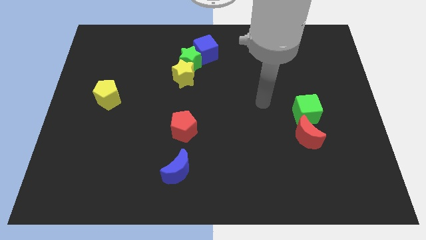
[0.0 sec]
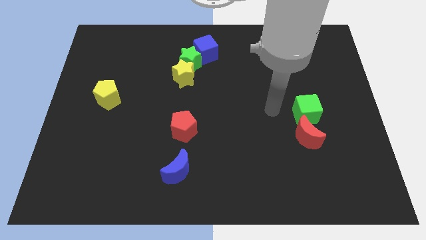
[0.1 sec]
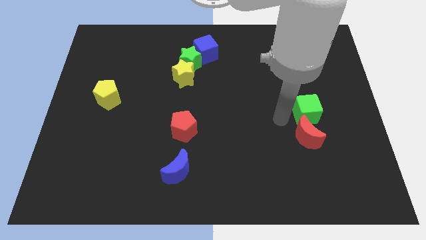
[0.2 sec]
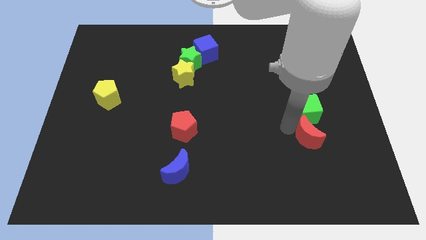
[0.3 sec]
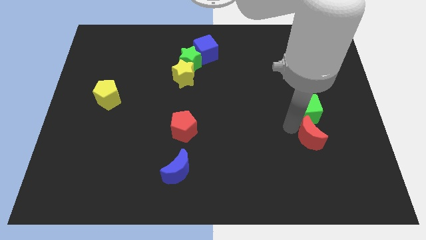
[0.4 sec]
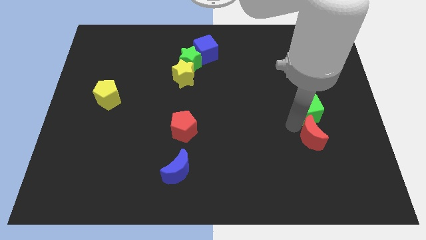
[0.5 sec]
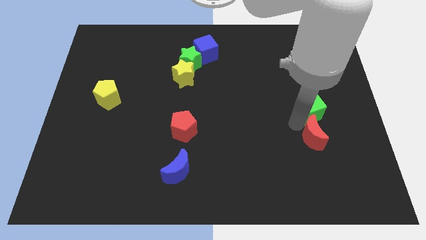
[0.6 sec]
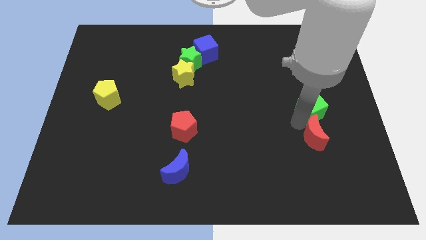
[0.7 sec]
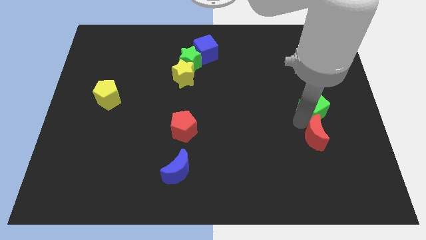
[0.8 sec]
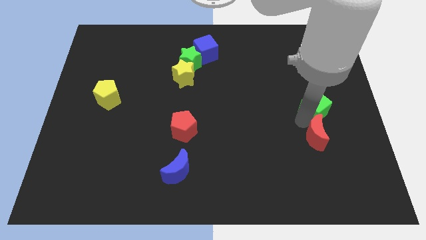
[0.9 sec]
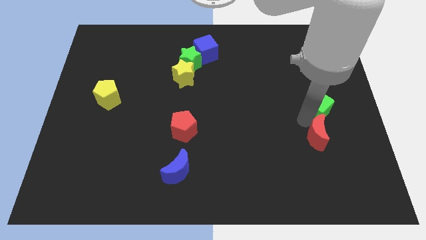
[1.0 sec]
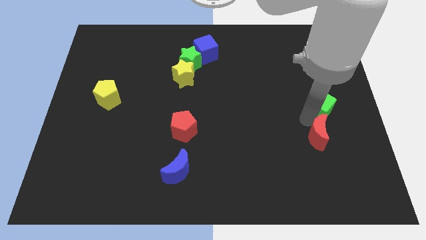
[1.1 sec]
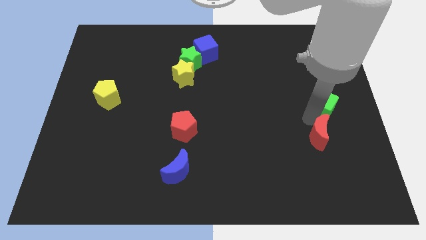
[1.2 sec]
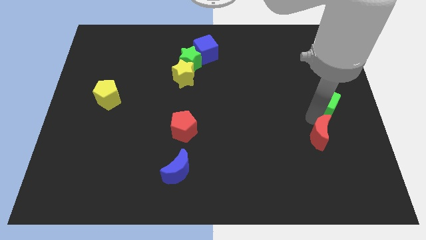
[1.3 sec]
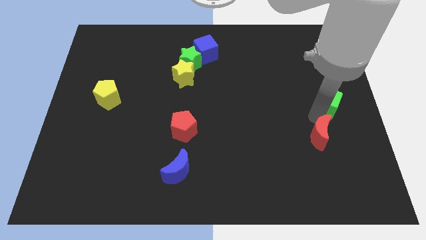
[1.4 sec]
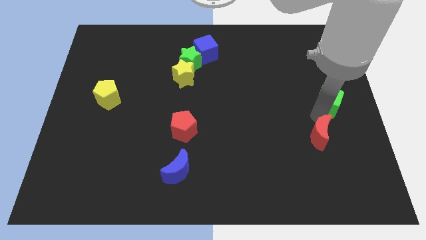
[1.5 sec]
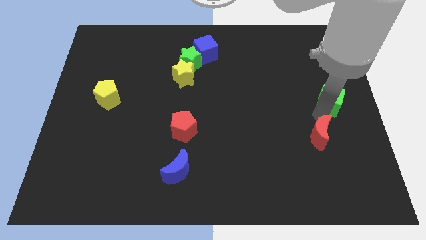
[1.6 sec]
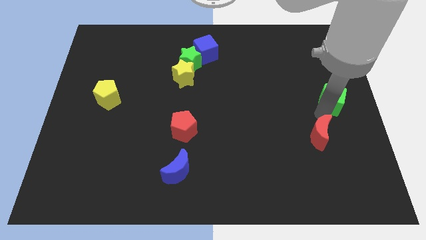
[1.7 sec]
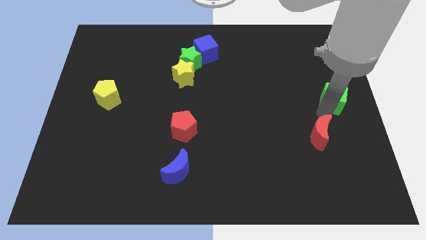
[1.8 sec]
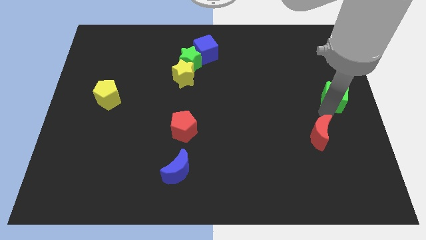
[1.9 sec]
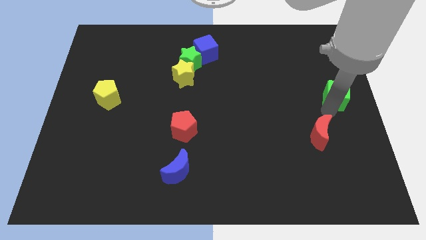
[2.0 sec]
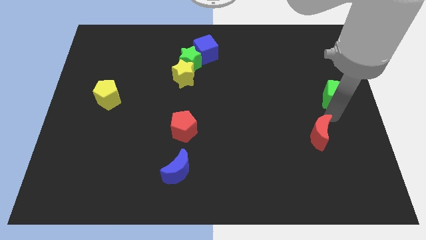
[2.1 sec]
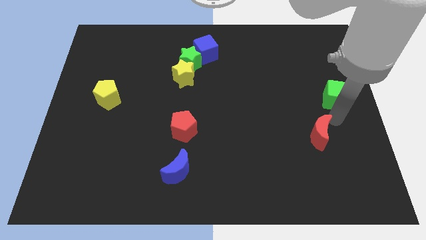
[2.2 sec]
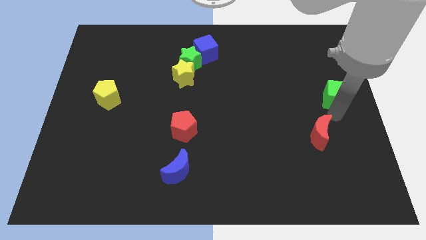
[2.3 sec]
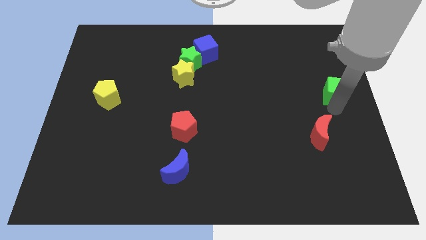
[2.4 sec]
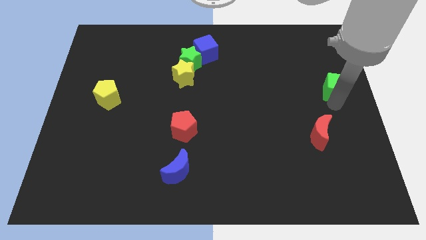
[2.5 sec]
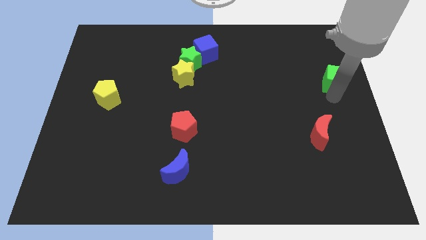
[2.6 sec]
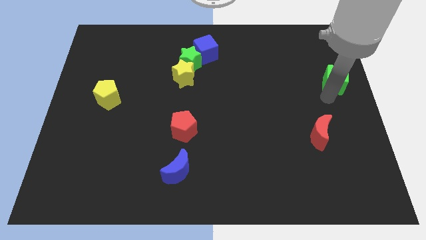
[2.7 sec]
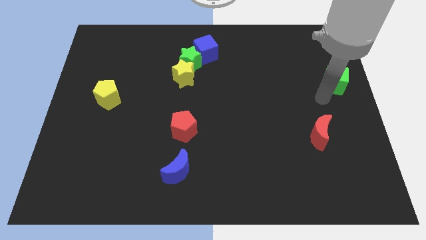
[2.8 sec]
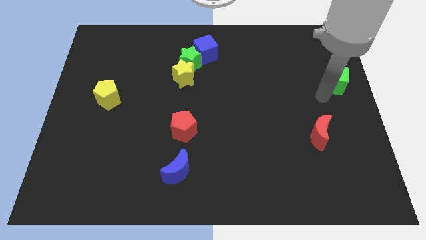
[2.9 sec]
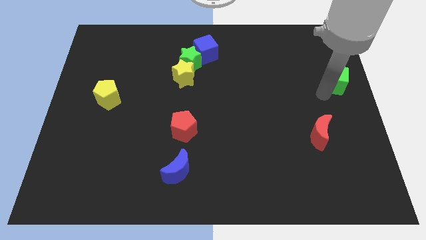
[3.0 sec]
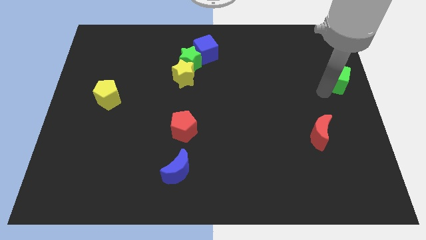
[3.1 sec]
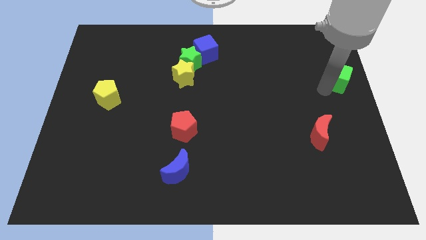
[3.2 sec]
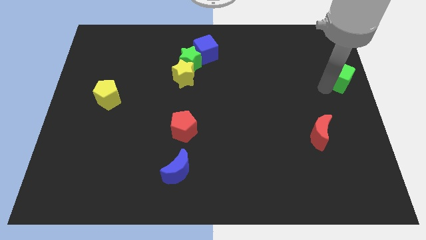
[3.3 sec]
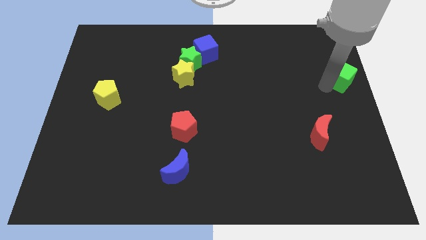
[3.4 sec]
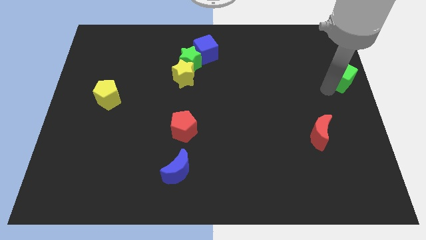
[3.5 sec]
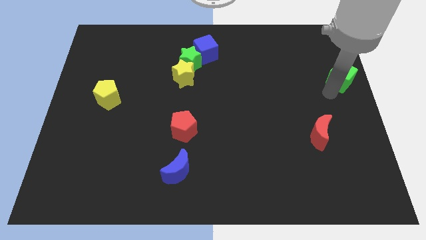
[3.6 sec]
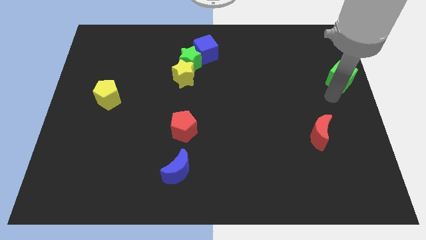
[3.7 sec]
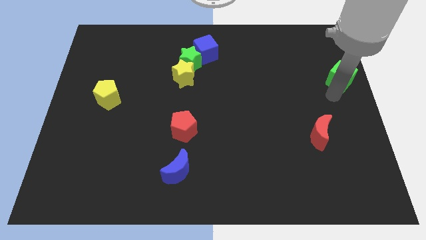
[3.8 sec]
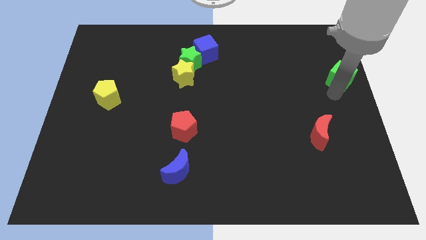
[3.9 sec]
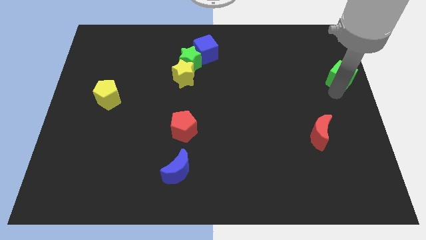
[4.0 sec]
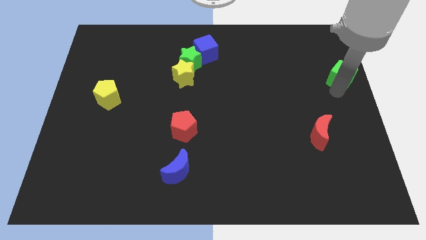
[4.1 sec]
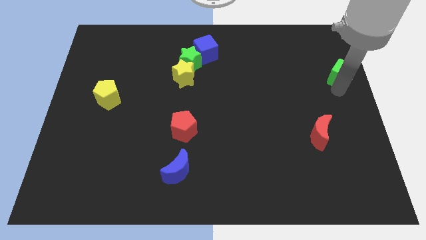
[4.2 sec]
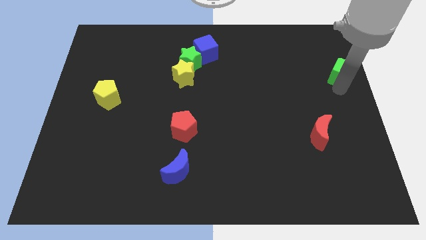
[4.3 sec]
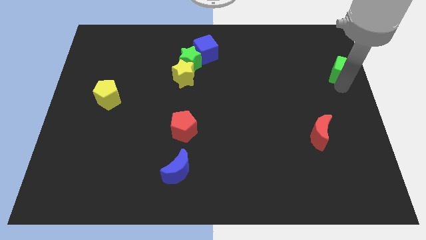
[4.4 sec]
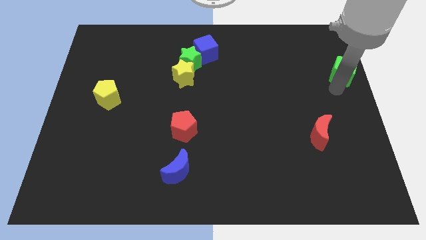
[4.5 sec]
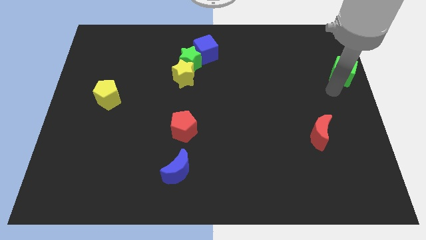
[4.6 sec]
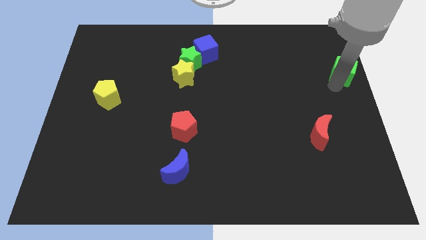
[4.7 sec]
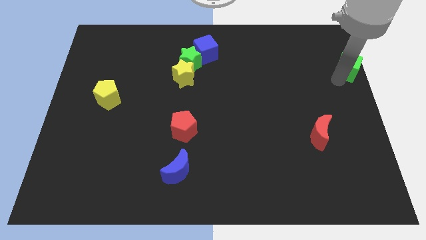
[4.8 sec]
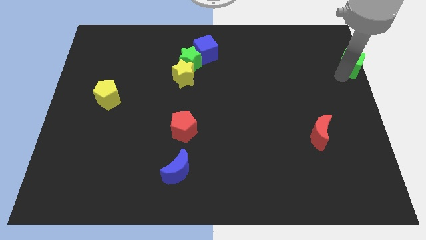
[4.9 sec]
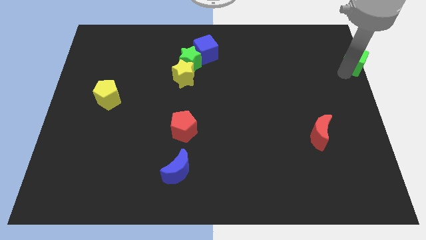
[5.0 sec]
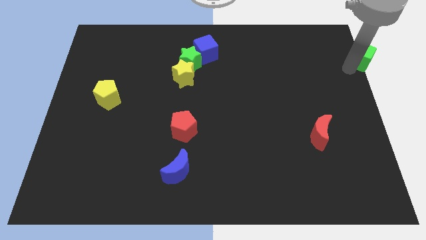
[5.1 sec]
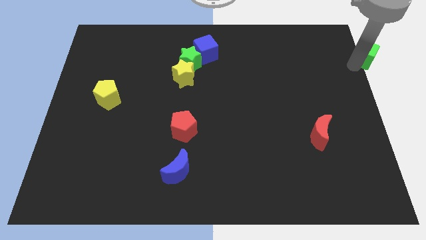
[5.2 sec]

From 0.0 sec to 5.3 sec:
slide the green cube to the top right of the board

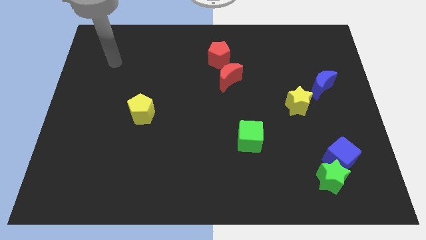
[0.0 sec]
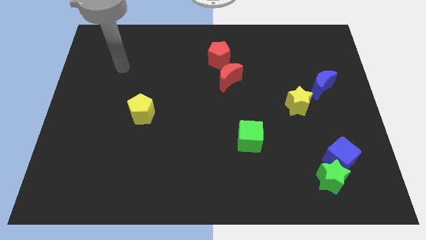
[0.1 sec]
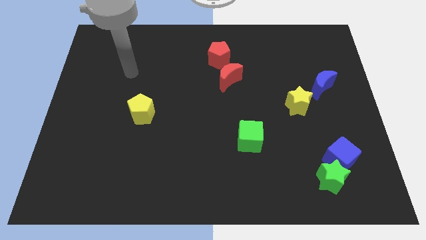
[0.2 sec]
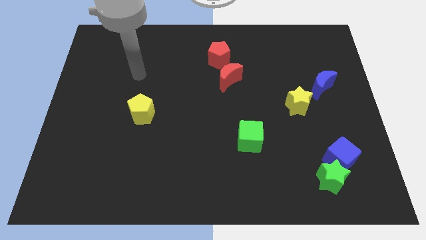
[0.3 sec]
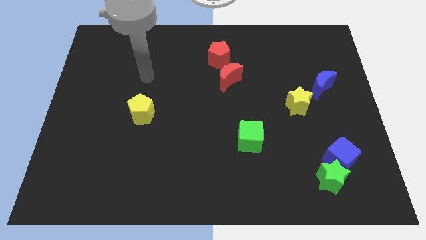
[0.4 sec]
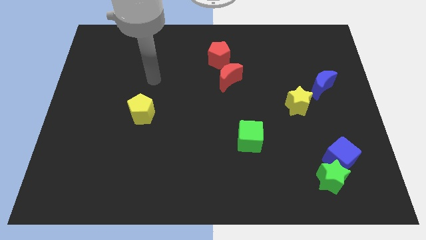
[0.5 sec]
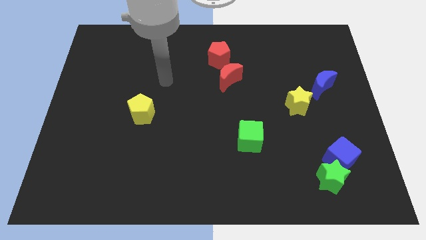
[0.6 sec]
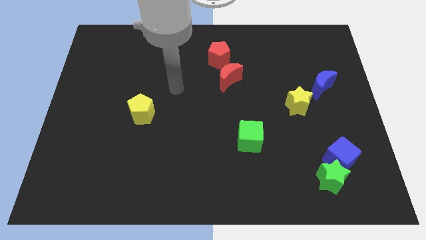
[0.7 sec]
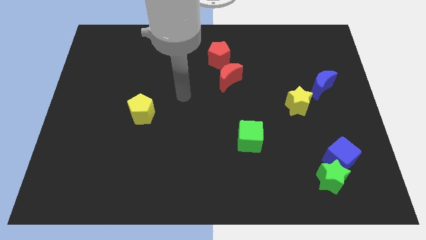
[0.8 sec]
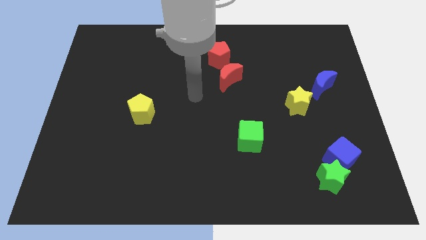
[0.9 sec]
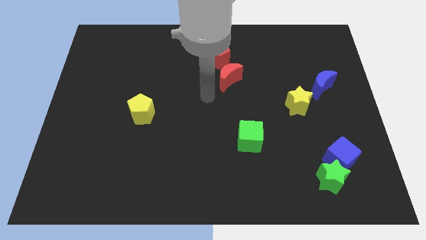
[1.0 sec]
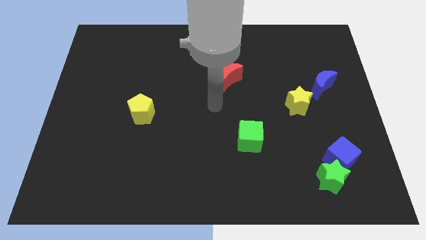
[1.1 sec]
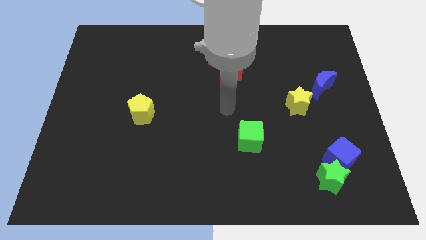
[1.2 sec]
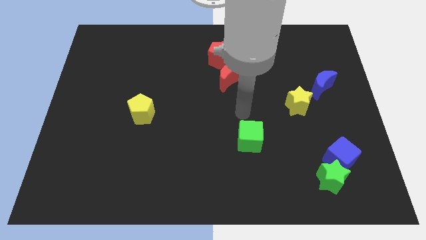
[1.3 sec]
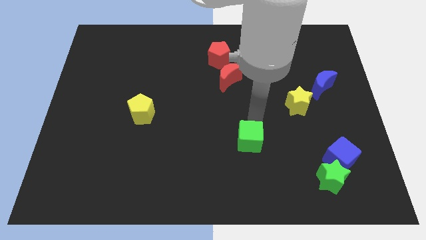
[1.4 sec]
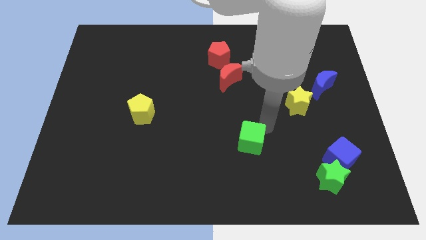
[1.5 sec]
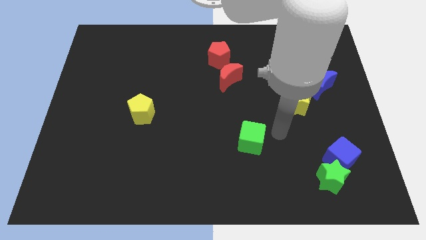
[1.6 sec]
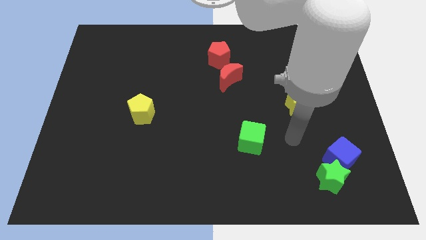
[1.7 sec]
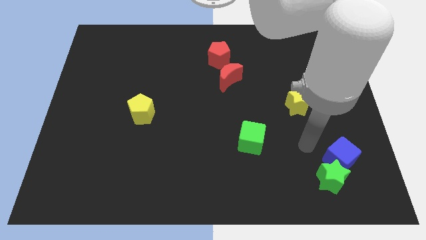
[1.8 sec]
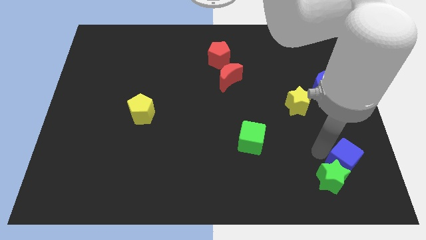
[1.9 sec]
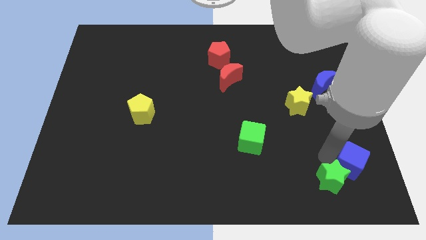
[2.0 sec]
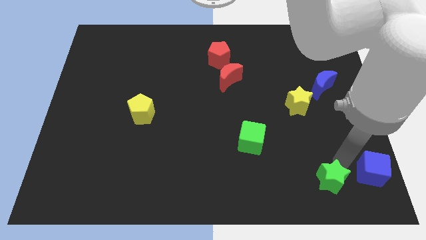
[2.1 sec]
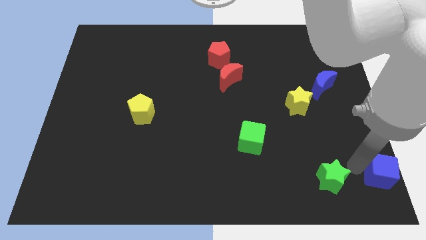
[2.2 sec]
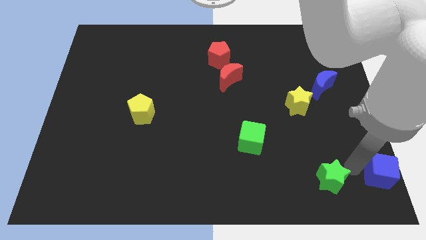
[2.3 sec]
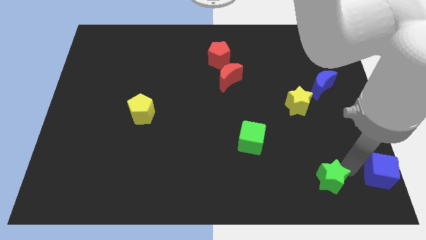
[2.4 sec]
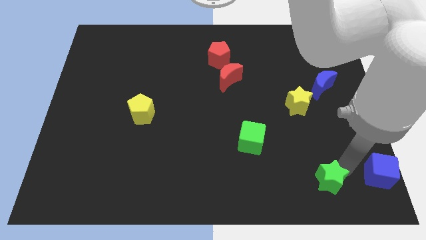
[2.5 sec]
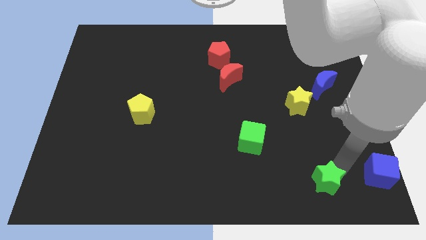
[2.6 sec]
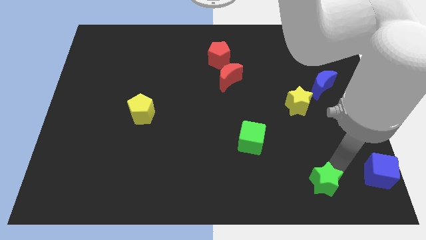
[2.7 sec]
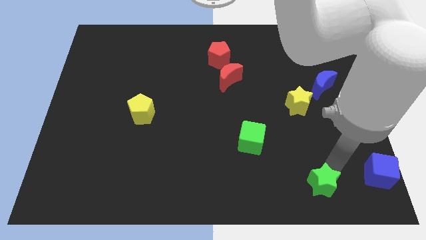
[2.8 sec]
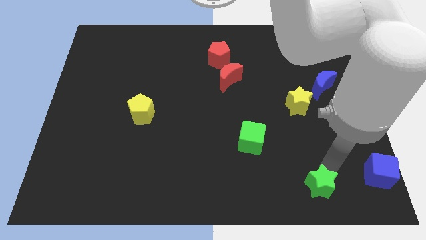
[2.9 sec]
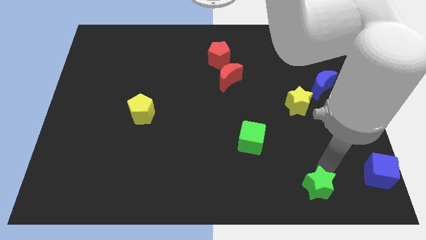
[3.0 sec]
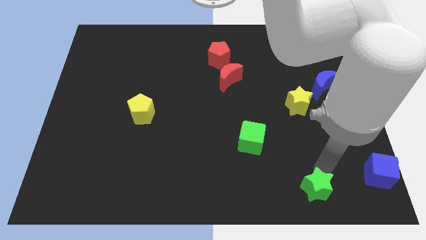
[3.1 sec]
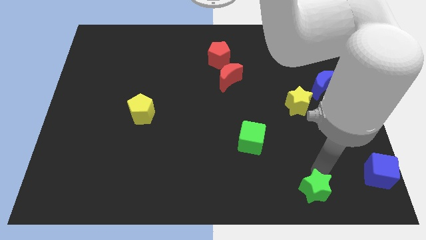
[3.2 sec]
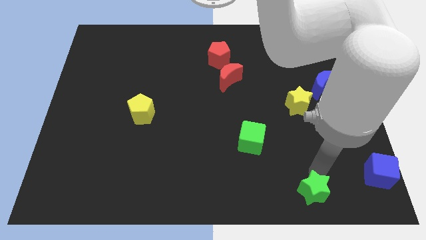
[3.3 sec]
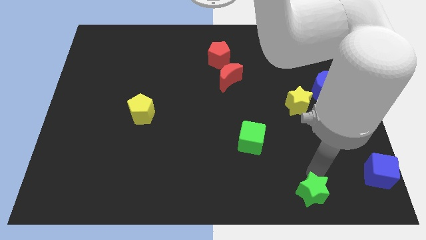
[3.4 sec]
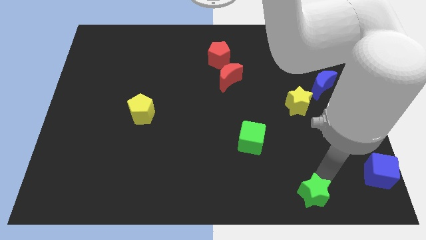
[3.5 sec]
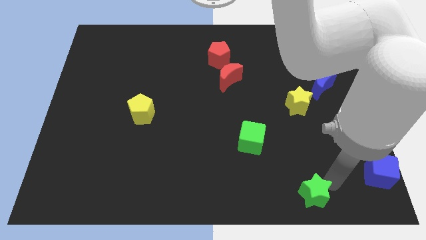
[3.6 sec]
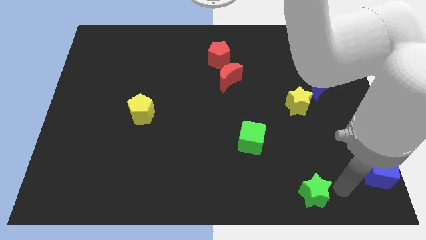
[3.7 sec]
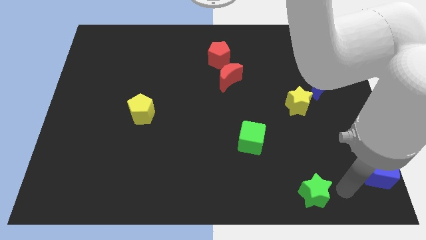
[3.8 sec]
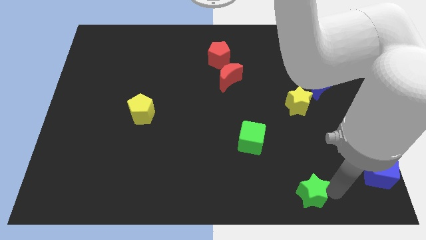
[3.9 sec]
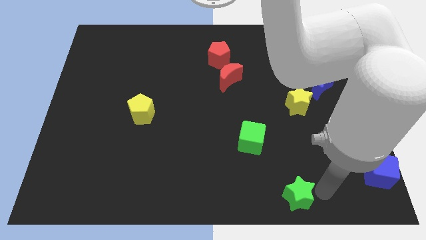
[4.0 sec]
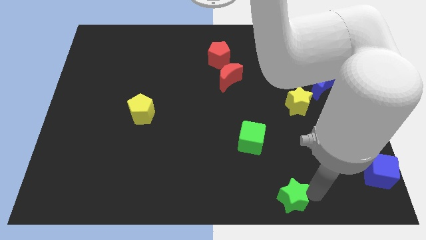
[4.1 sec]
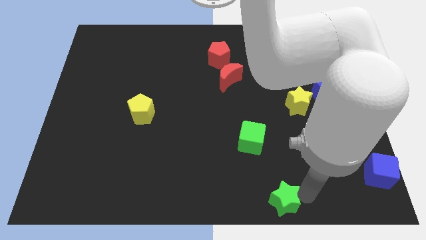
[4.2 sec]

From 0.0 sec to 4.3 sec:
move the green star to the bottom
